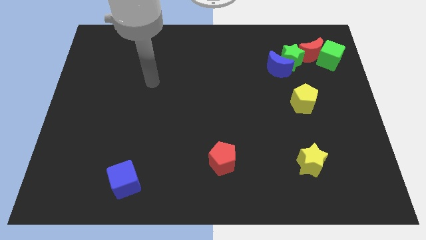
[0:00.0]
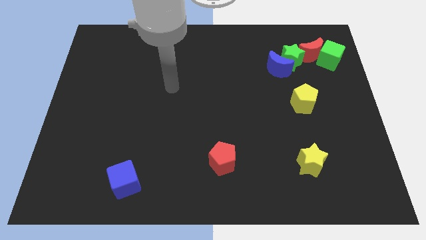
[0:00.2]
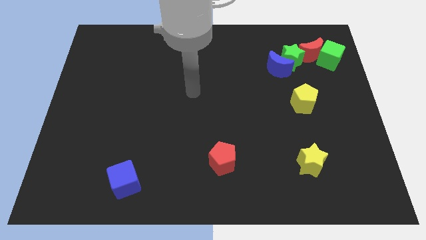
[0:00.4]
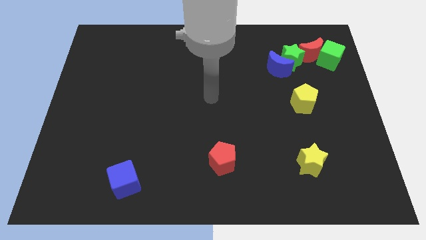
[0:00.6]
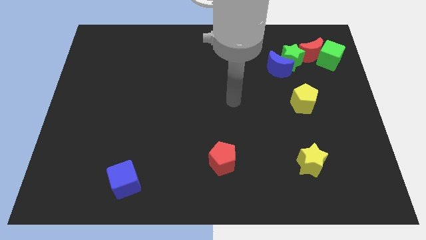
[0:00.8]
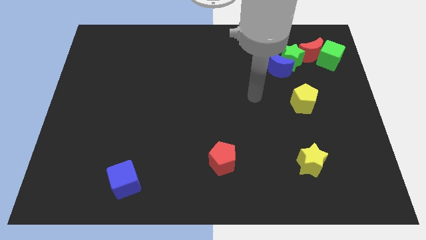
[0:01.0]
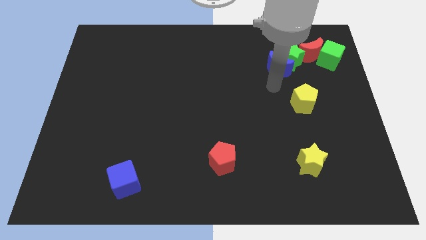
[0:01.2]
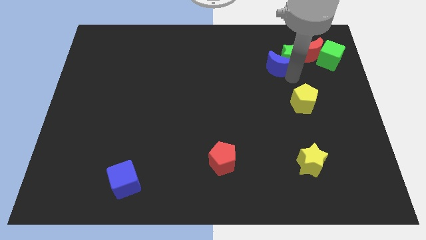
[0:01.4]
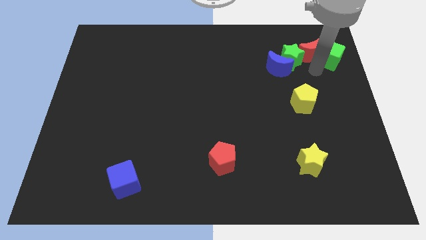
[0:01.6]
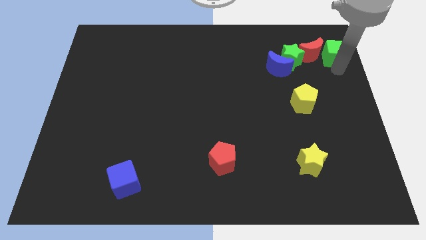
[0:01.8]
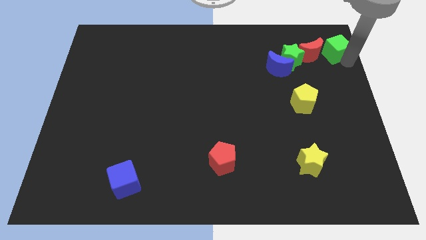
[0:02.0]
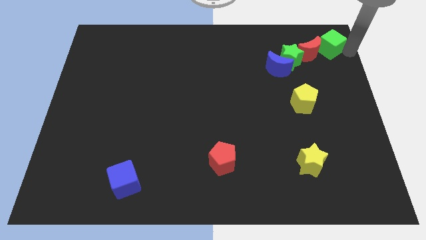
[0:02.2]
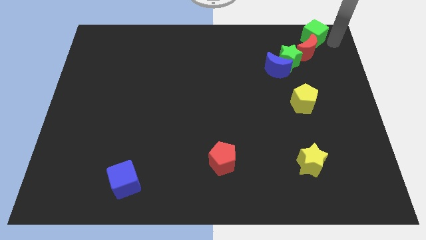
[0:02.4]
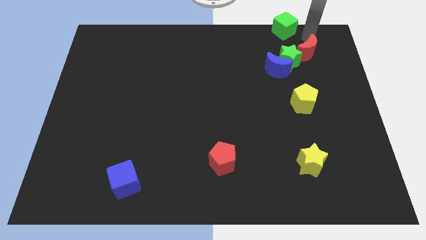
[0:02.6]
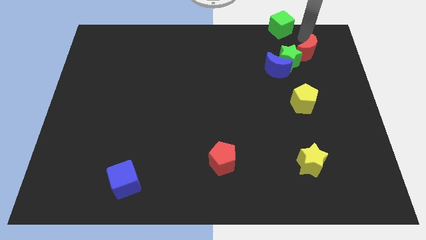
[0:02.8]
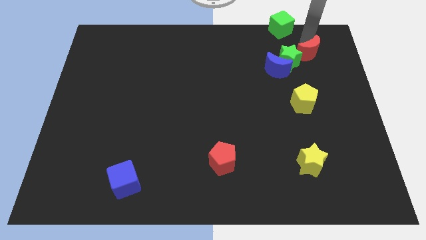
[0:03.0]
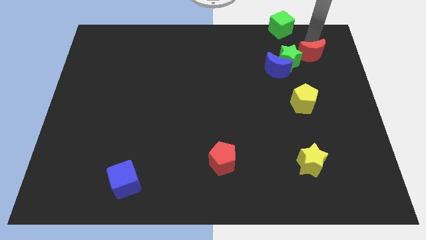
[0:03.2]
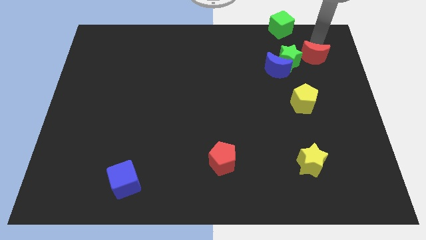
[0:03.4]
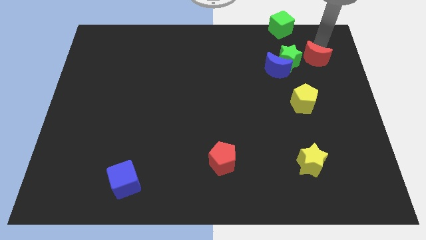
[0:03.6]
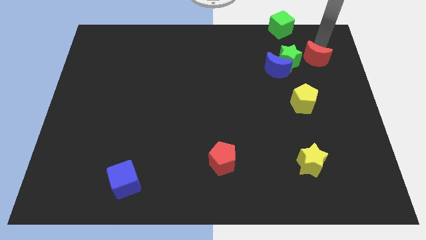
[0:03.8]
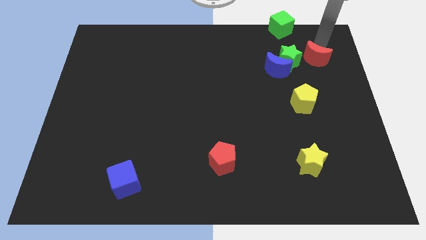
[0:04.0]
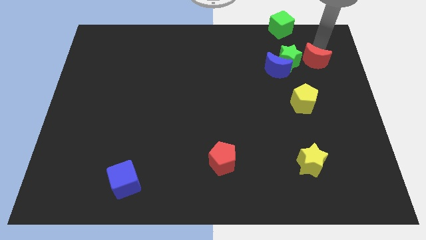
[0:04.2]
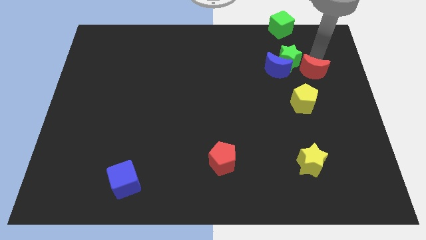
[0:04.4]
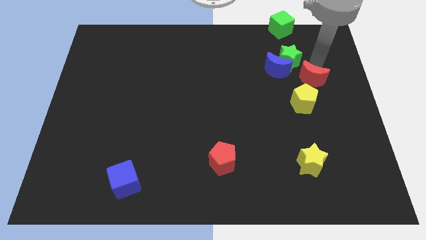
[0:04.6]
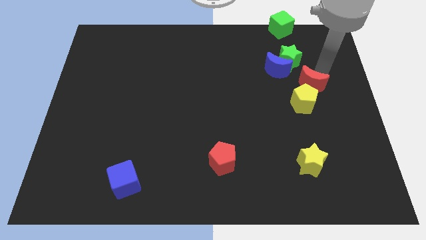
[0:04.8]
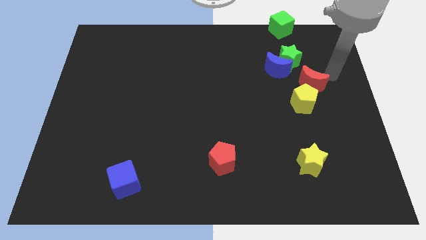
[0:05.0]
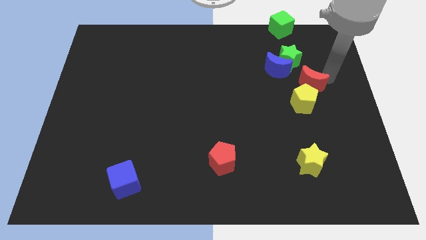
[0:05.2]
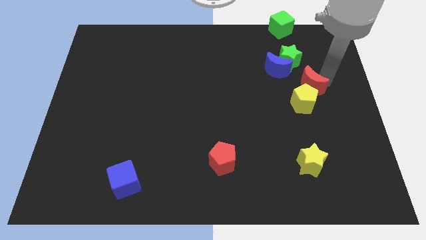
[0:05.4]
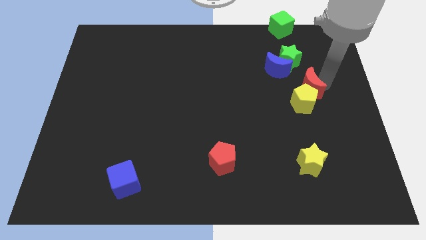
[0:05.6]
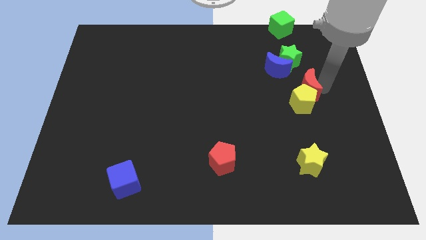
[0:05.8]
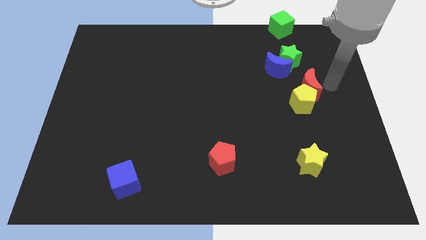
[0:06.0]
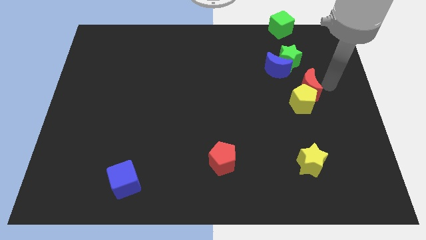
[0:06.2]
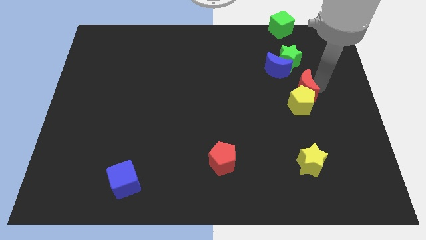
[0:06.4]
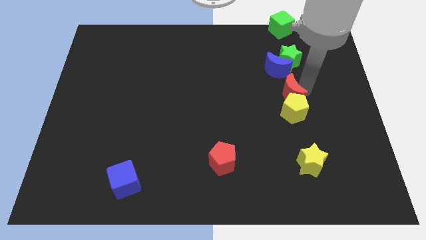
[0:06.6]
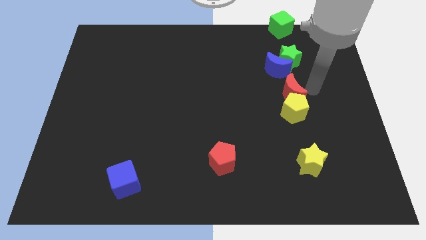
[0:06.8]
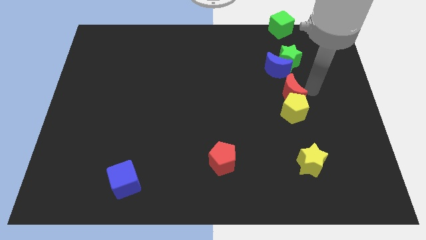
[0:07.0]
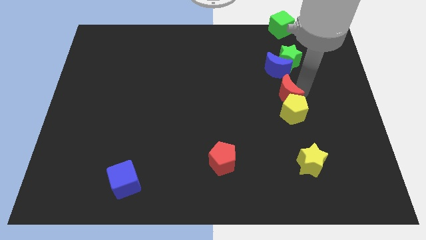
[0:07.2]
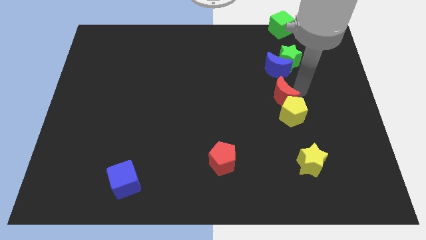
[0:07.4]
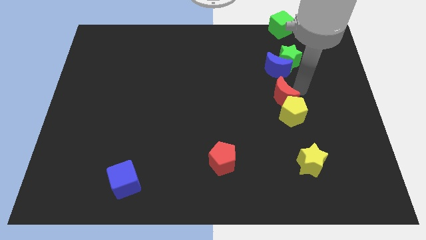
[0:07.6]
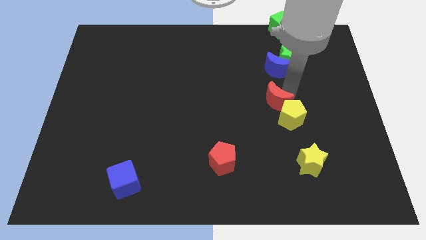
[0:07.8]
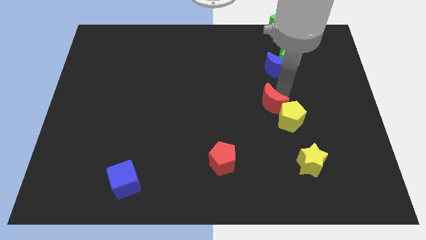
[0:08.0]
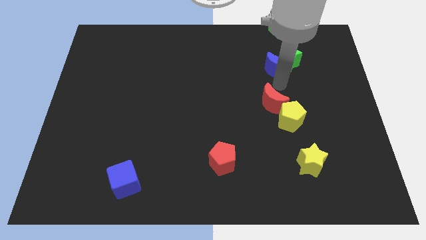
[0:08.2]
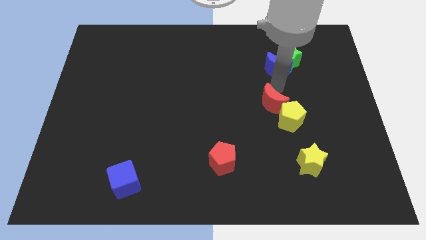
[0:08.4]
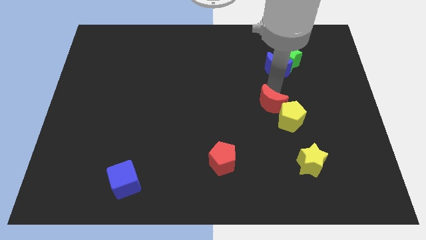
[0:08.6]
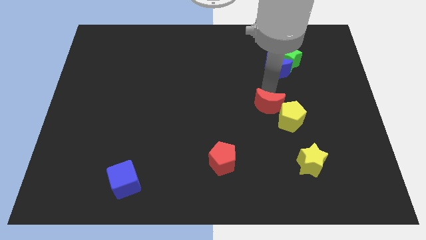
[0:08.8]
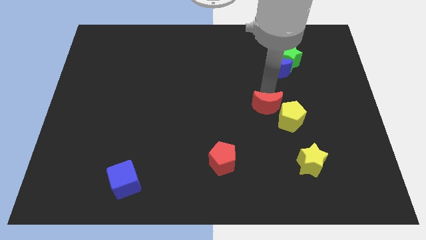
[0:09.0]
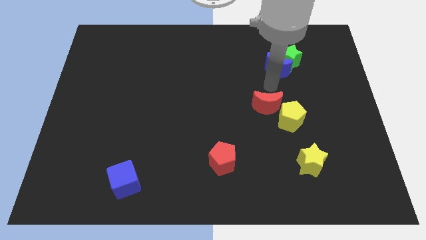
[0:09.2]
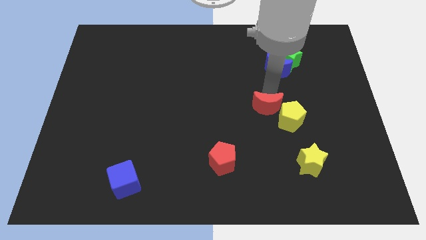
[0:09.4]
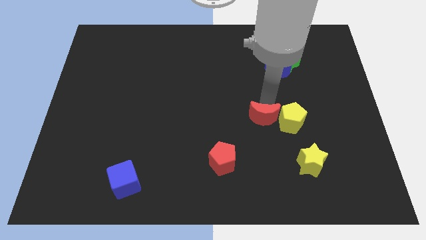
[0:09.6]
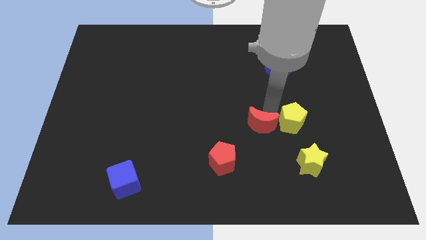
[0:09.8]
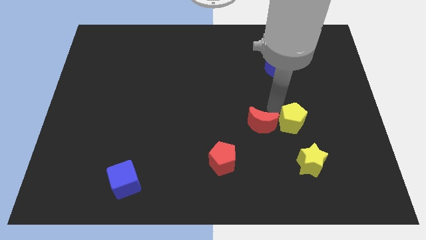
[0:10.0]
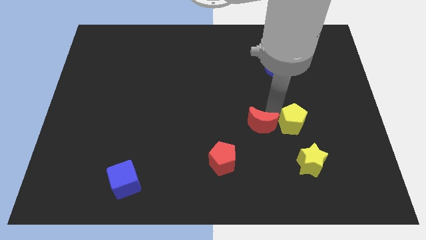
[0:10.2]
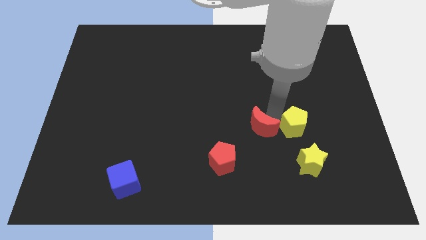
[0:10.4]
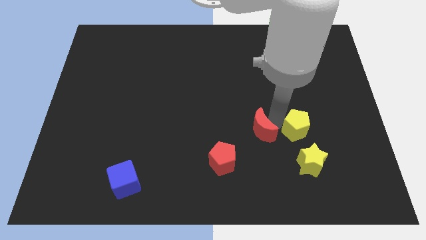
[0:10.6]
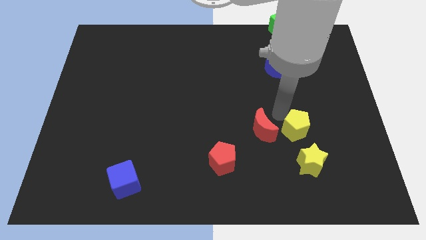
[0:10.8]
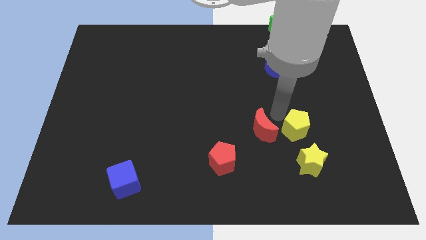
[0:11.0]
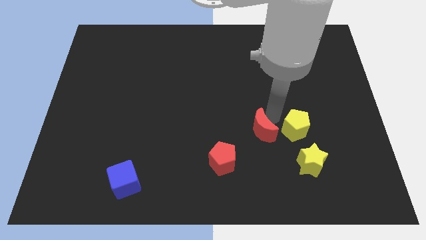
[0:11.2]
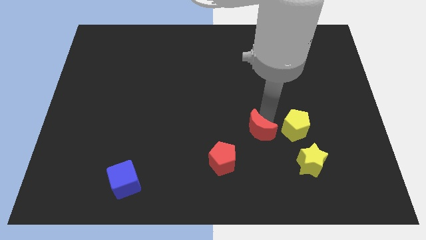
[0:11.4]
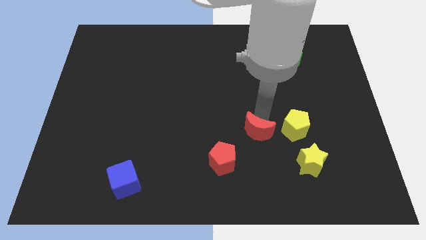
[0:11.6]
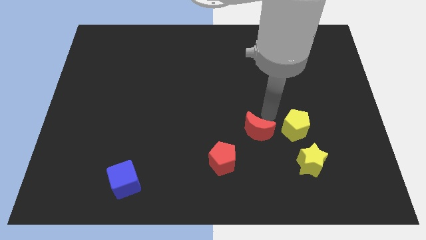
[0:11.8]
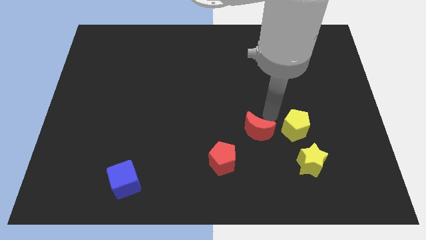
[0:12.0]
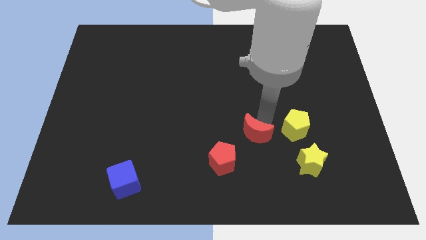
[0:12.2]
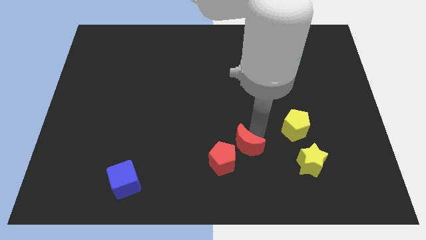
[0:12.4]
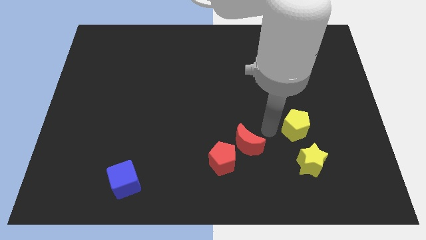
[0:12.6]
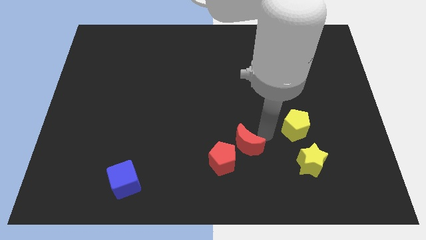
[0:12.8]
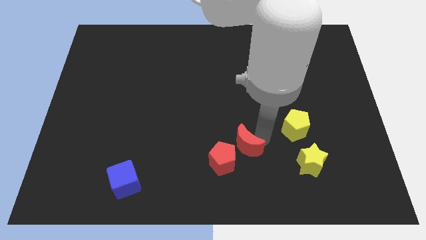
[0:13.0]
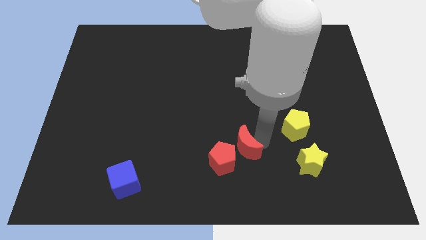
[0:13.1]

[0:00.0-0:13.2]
push the red moon towards the red pentagon
